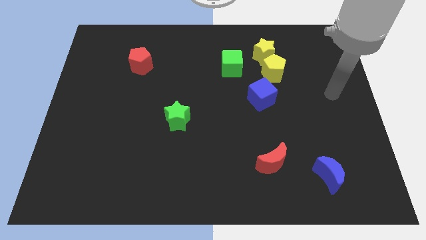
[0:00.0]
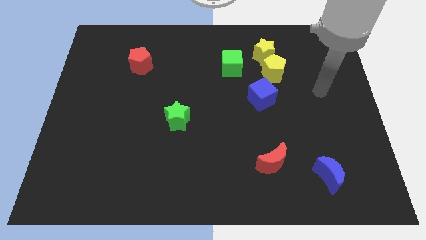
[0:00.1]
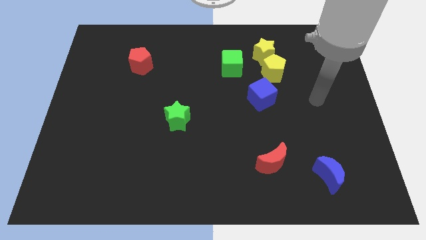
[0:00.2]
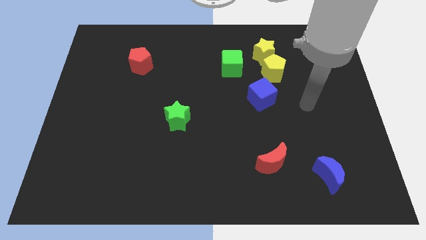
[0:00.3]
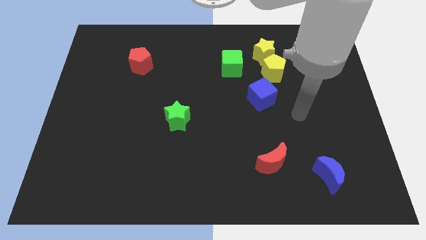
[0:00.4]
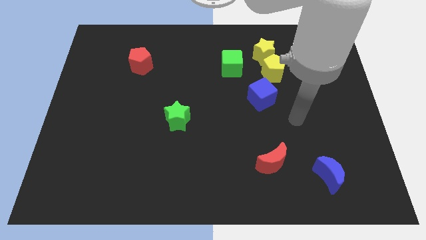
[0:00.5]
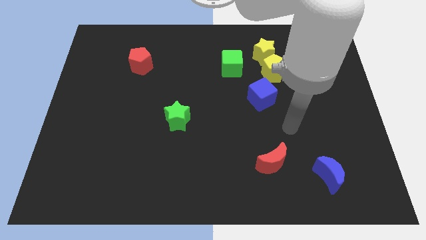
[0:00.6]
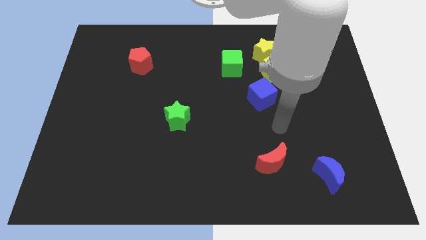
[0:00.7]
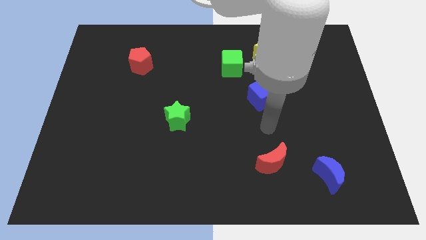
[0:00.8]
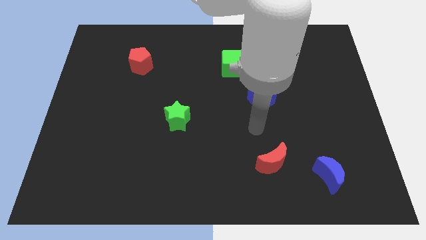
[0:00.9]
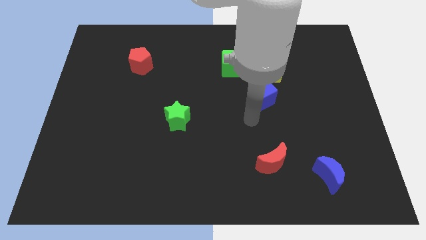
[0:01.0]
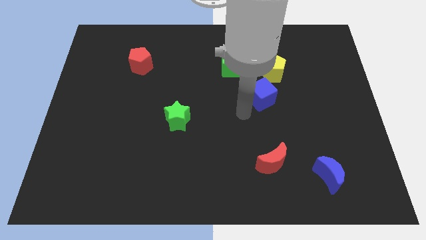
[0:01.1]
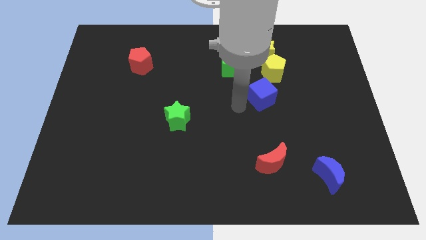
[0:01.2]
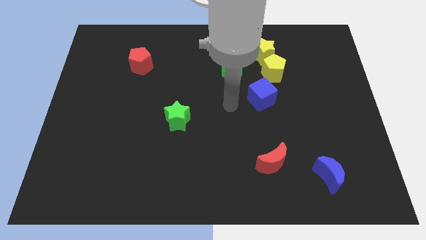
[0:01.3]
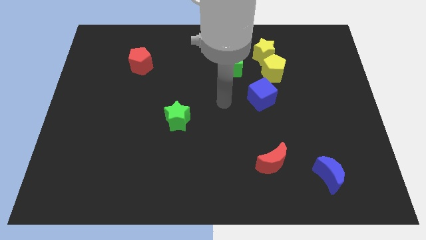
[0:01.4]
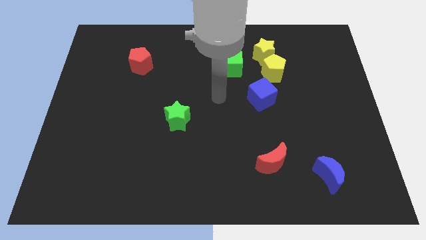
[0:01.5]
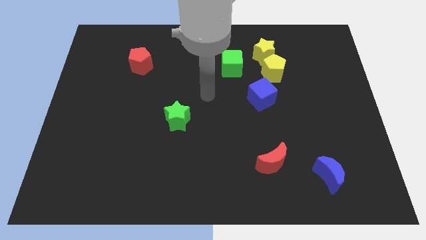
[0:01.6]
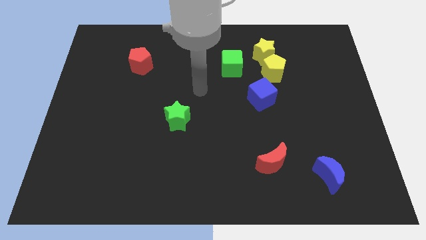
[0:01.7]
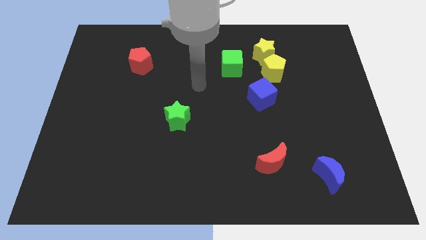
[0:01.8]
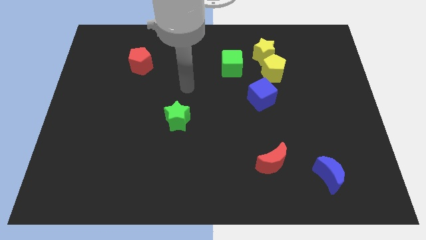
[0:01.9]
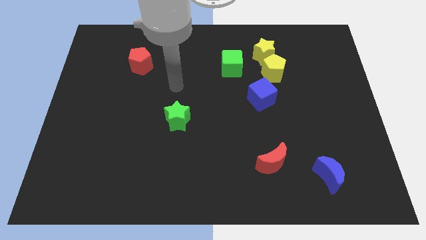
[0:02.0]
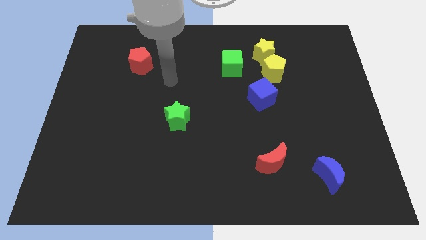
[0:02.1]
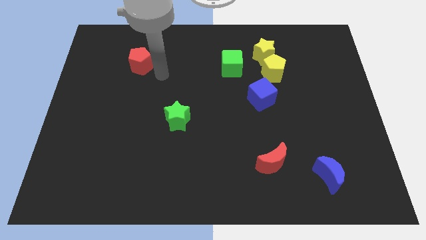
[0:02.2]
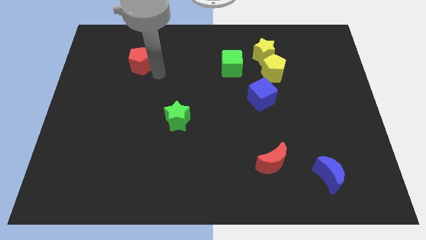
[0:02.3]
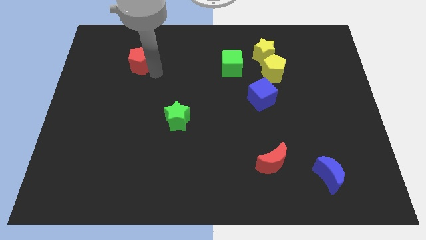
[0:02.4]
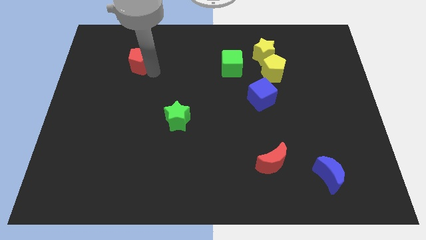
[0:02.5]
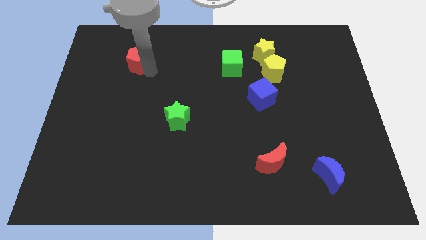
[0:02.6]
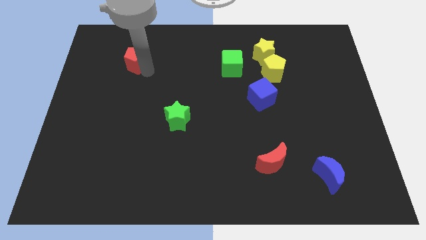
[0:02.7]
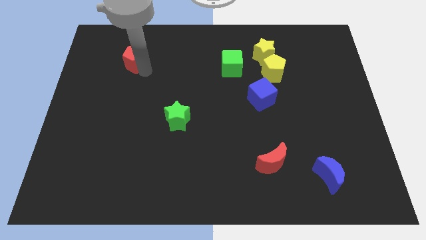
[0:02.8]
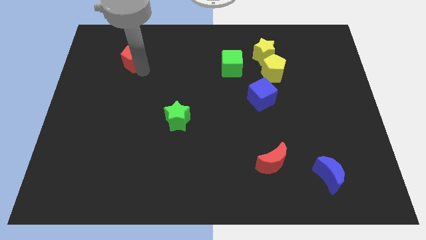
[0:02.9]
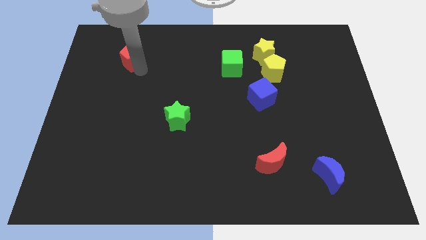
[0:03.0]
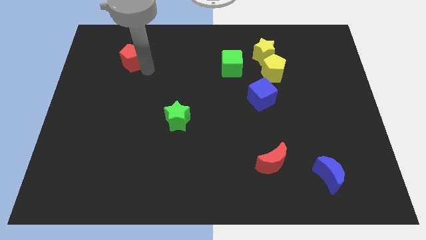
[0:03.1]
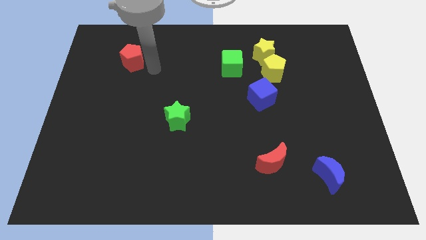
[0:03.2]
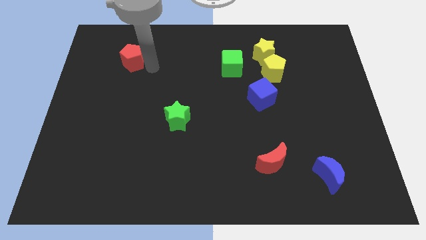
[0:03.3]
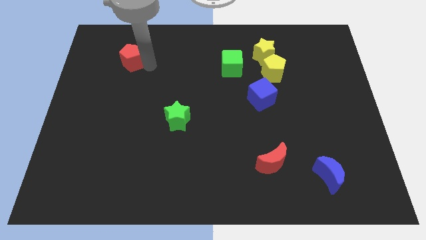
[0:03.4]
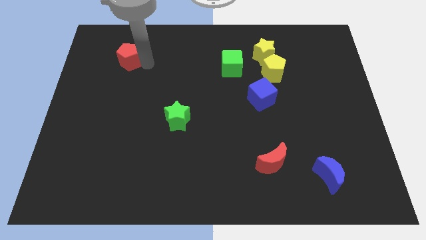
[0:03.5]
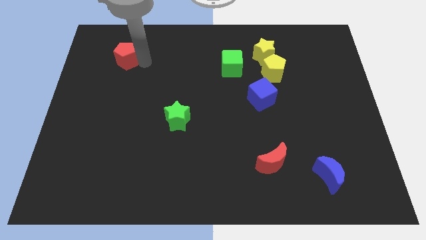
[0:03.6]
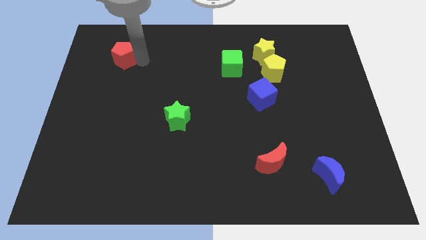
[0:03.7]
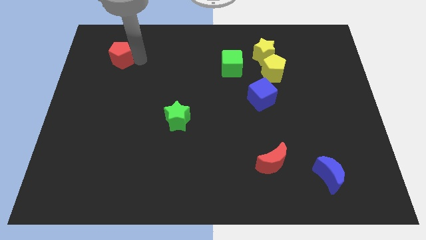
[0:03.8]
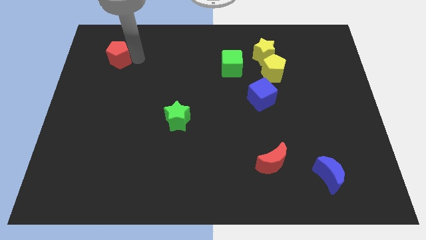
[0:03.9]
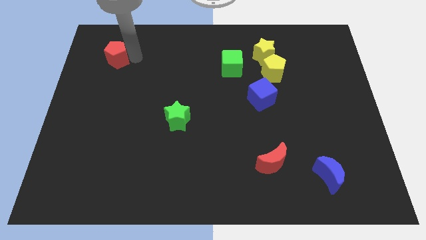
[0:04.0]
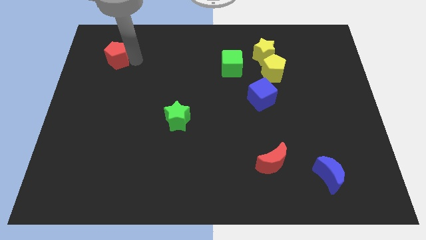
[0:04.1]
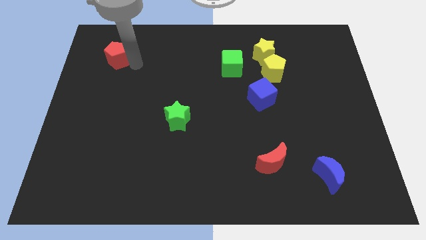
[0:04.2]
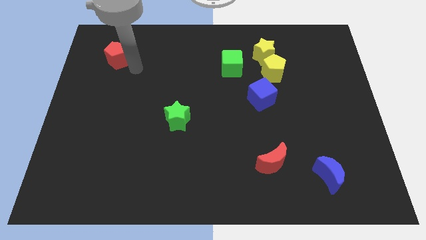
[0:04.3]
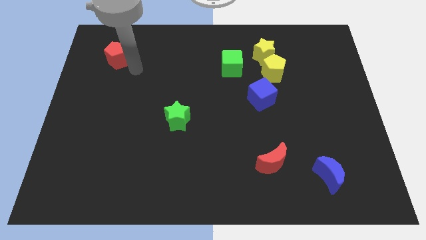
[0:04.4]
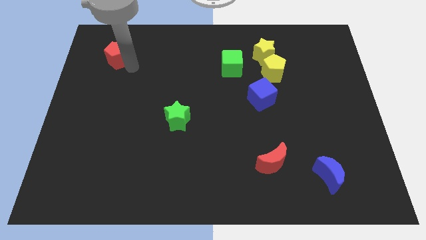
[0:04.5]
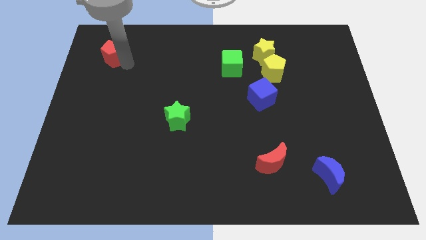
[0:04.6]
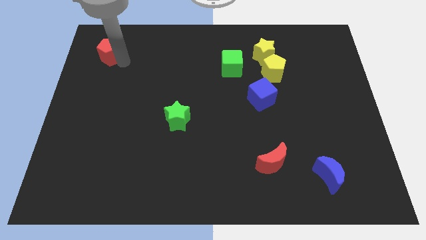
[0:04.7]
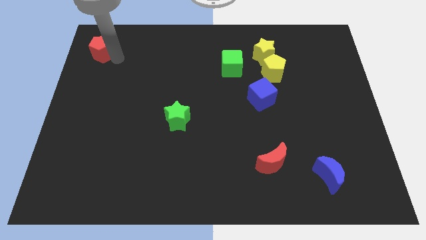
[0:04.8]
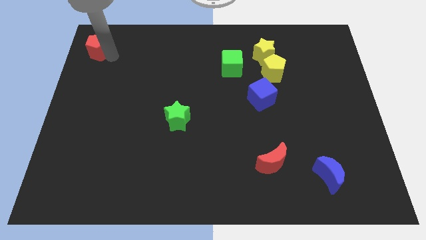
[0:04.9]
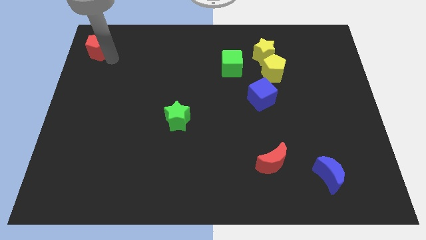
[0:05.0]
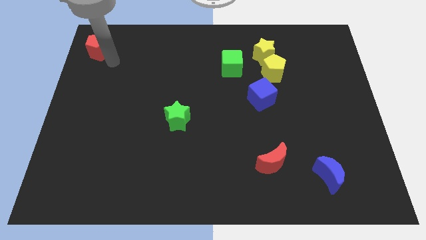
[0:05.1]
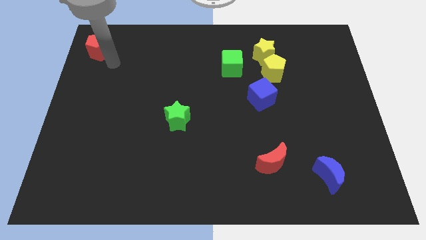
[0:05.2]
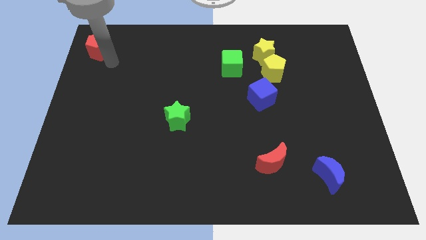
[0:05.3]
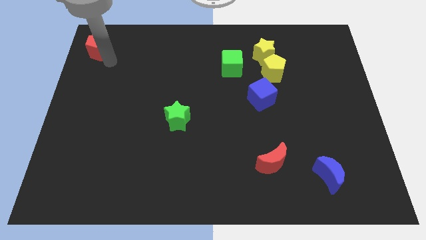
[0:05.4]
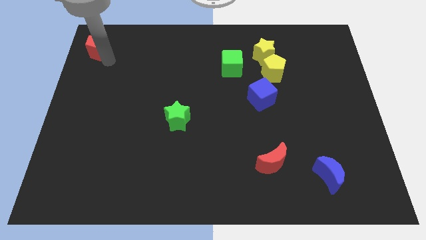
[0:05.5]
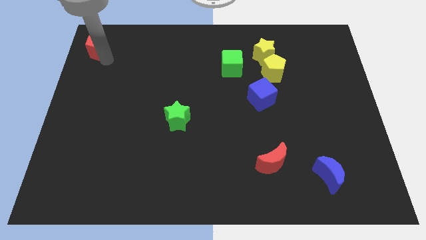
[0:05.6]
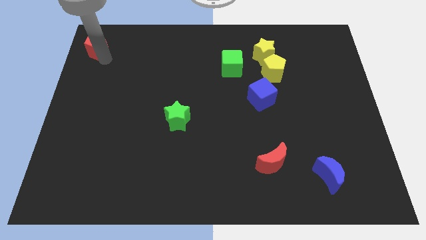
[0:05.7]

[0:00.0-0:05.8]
push the red pentagon to the top left

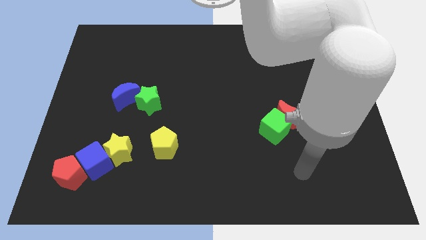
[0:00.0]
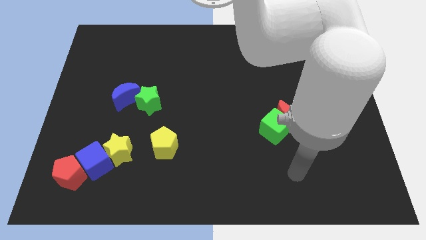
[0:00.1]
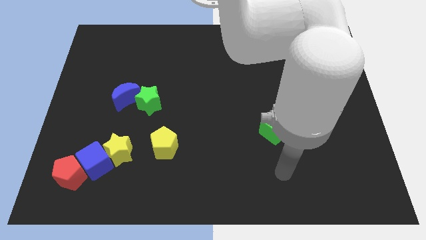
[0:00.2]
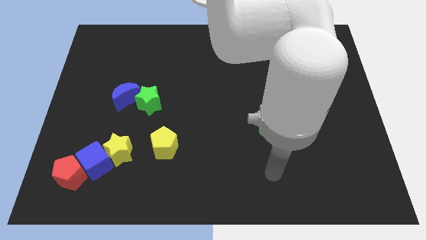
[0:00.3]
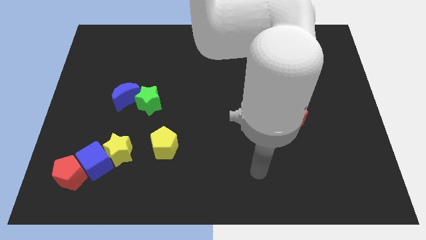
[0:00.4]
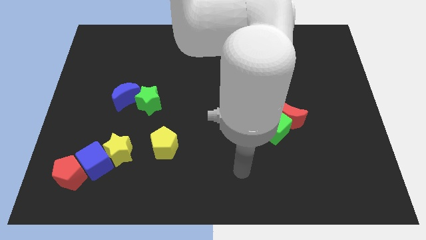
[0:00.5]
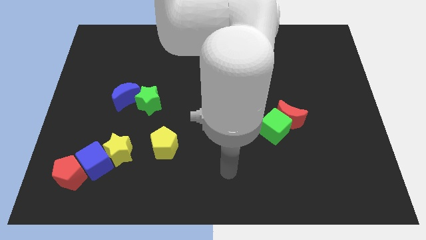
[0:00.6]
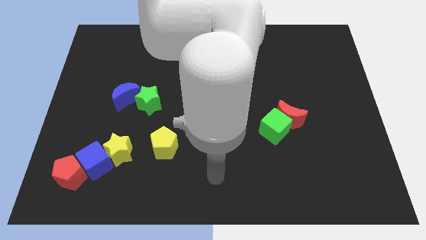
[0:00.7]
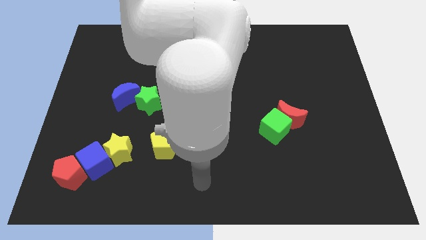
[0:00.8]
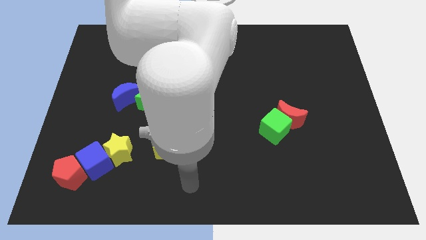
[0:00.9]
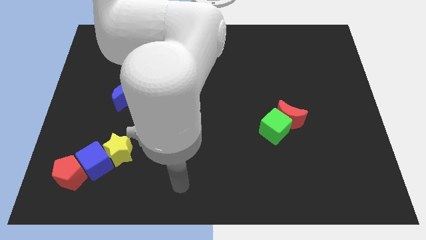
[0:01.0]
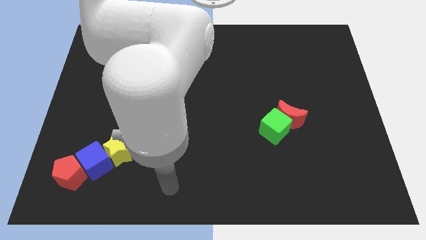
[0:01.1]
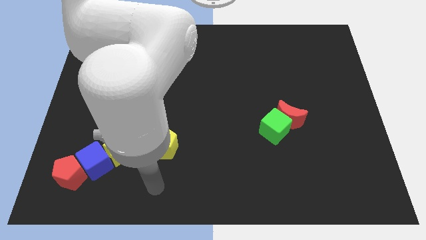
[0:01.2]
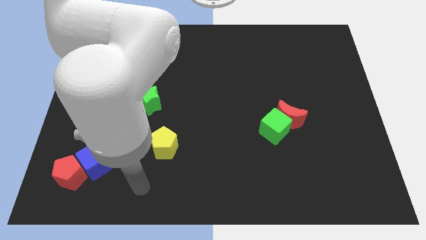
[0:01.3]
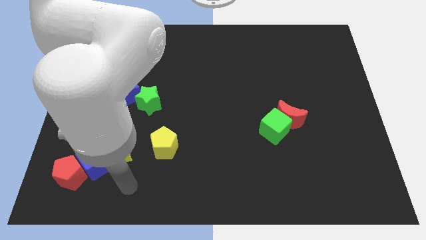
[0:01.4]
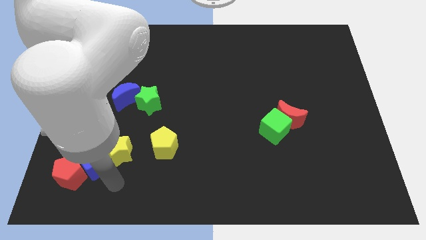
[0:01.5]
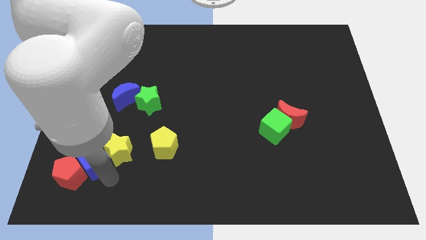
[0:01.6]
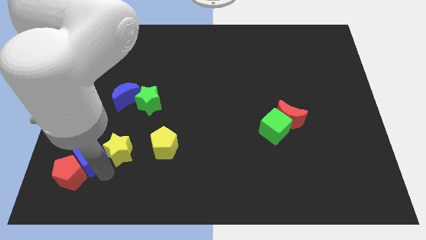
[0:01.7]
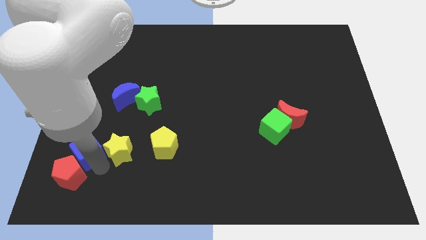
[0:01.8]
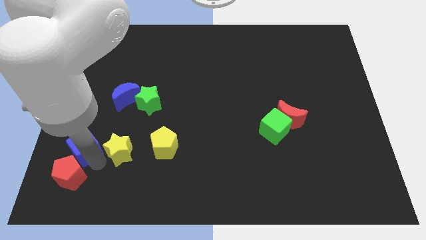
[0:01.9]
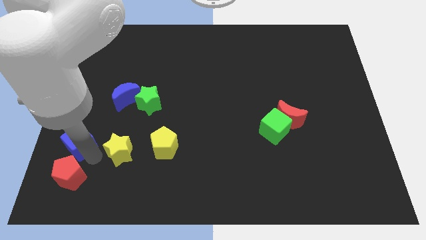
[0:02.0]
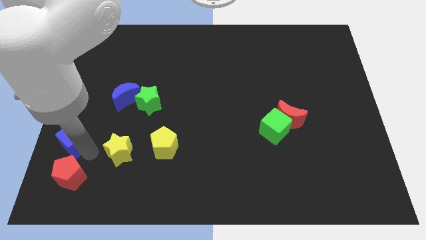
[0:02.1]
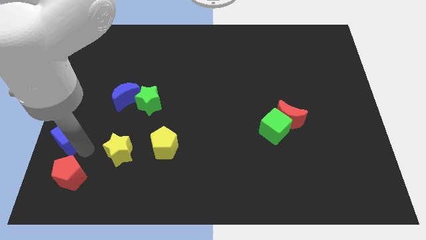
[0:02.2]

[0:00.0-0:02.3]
slide the blue cube to the center left
